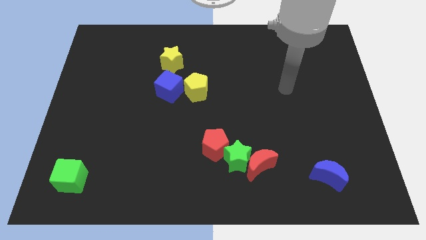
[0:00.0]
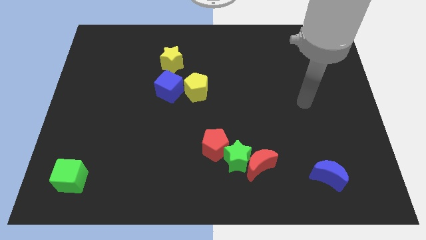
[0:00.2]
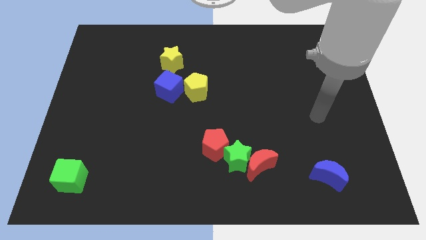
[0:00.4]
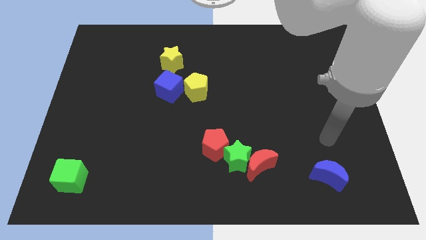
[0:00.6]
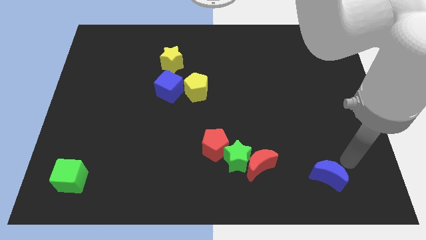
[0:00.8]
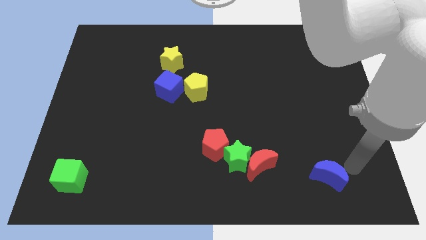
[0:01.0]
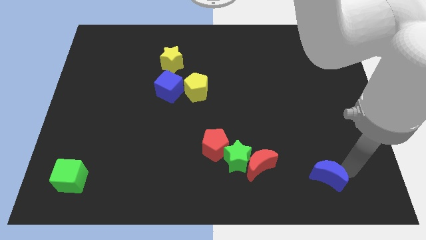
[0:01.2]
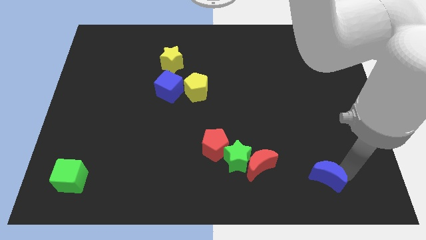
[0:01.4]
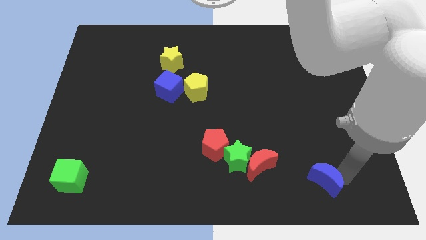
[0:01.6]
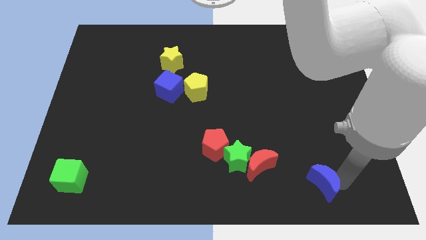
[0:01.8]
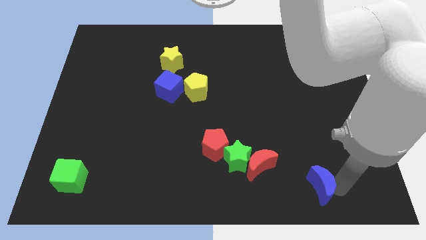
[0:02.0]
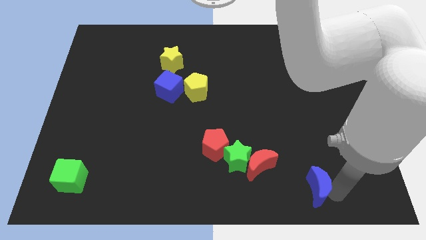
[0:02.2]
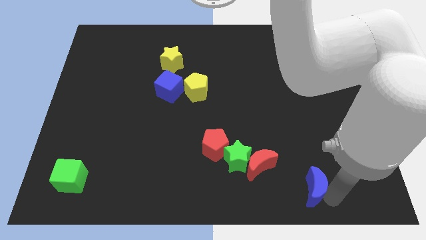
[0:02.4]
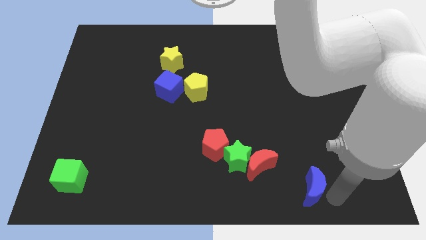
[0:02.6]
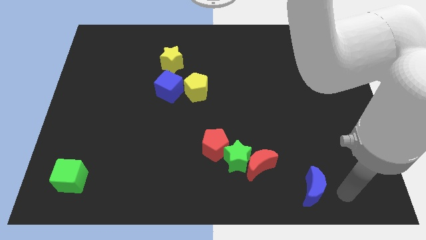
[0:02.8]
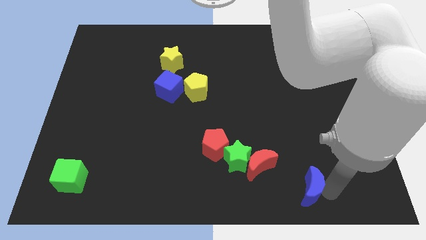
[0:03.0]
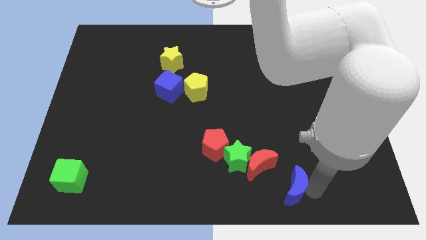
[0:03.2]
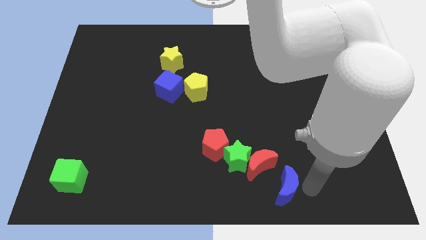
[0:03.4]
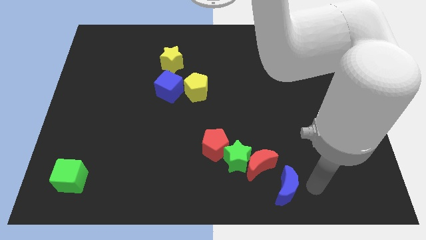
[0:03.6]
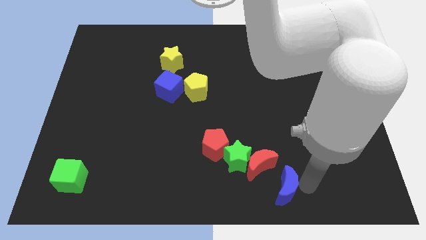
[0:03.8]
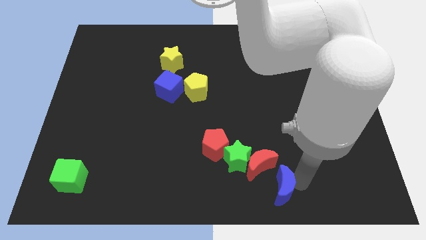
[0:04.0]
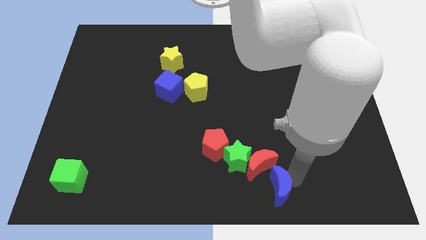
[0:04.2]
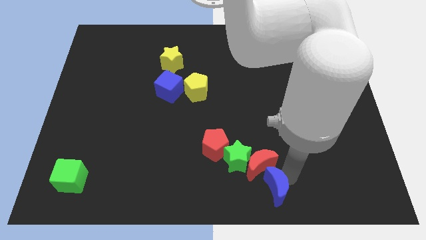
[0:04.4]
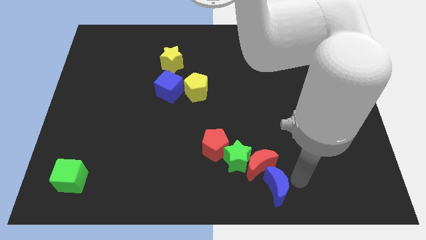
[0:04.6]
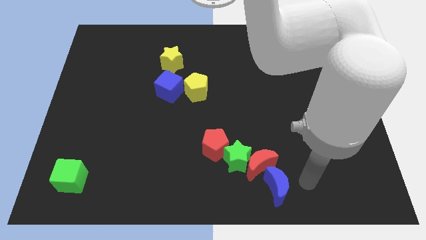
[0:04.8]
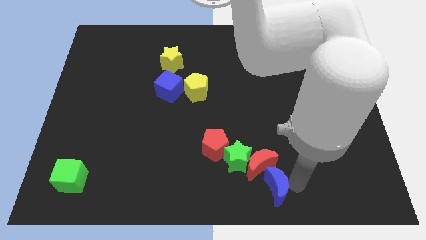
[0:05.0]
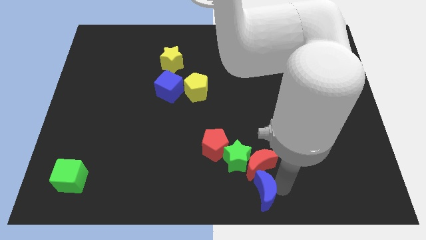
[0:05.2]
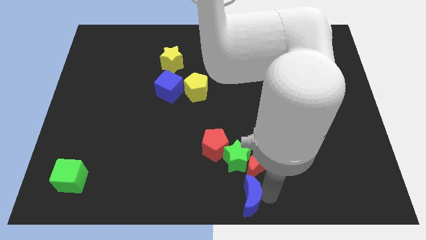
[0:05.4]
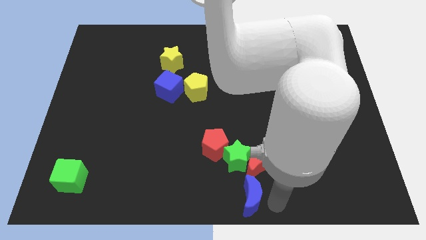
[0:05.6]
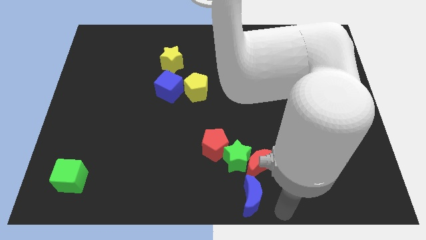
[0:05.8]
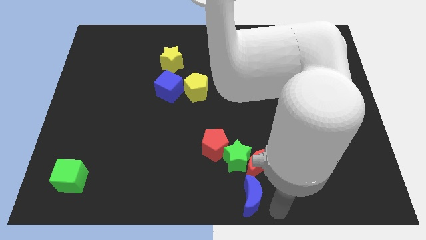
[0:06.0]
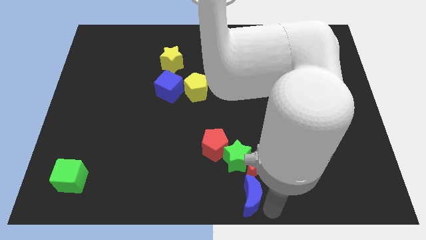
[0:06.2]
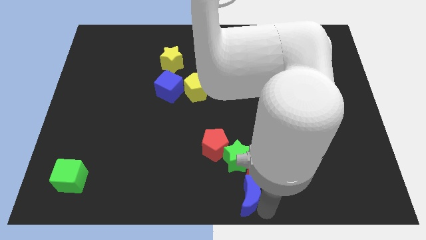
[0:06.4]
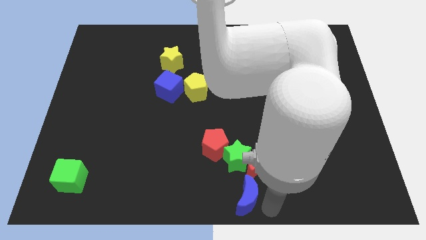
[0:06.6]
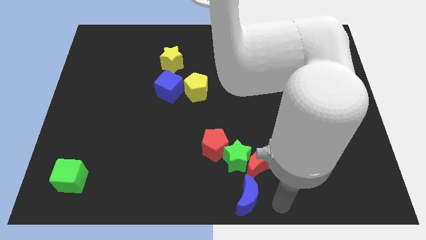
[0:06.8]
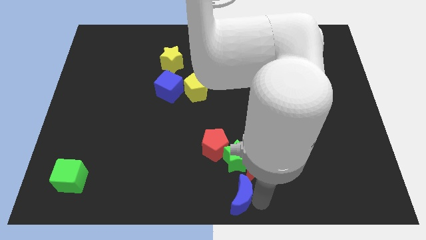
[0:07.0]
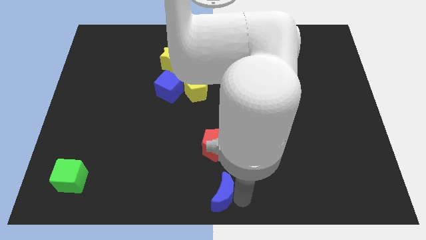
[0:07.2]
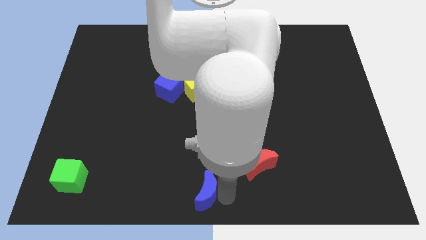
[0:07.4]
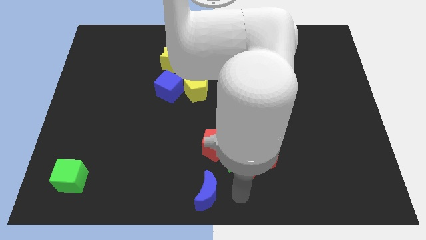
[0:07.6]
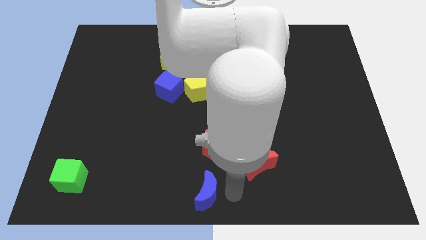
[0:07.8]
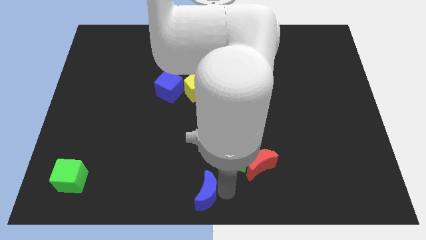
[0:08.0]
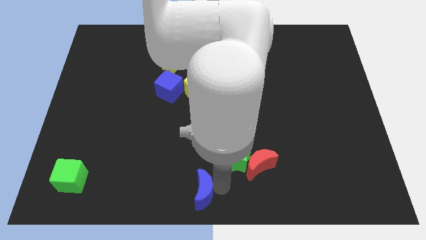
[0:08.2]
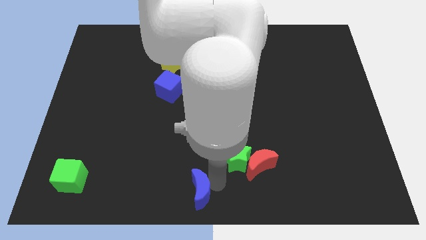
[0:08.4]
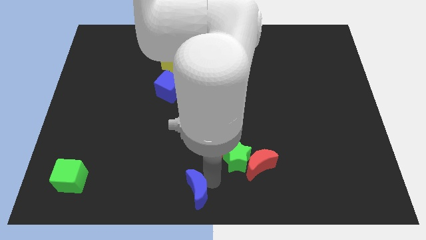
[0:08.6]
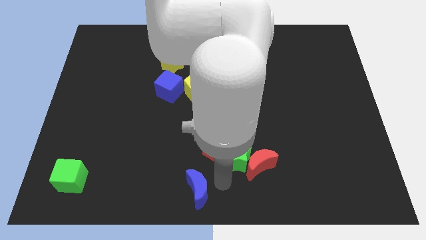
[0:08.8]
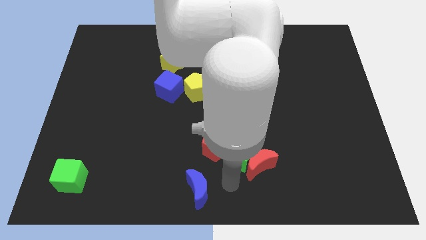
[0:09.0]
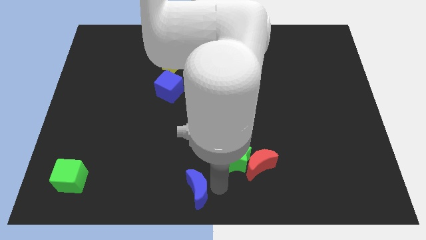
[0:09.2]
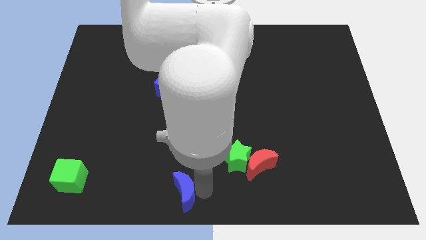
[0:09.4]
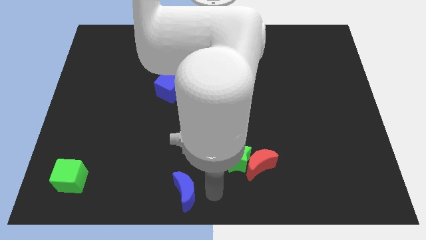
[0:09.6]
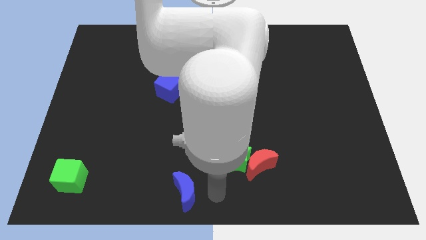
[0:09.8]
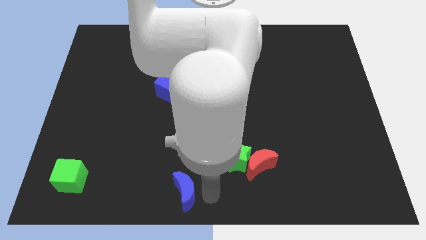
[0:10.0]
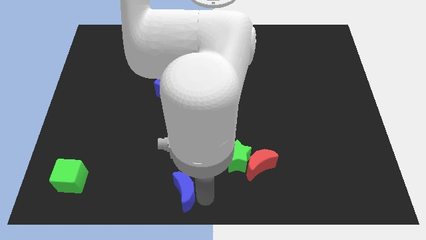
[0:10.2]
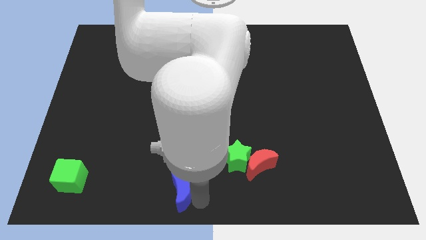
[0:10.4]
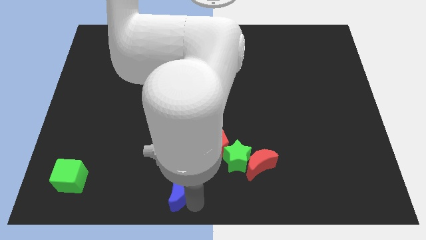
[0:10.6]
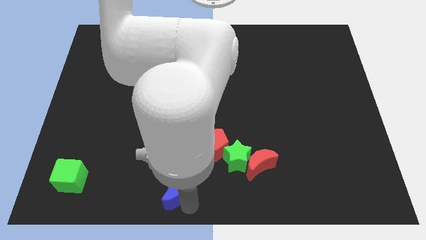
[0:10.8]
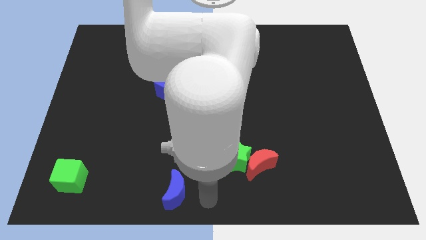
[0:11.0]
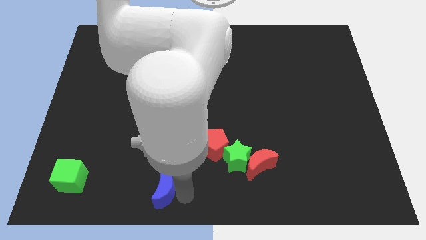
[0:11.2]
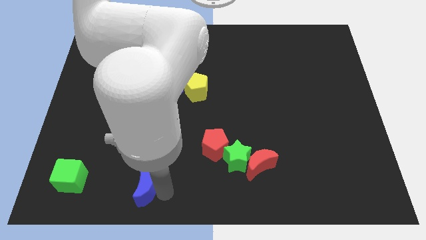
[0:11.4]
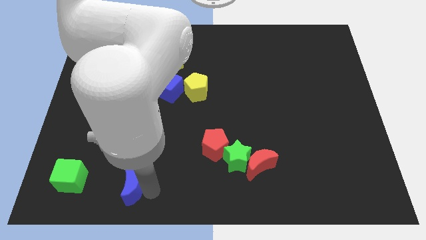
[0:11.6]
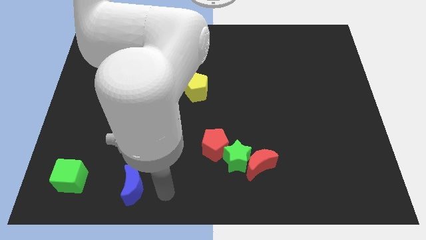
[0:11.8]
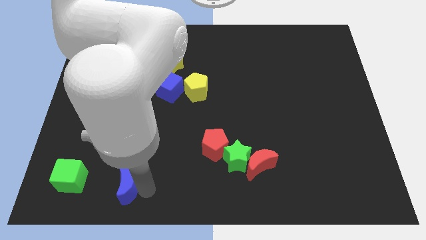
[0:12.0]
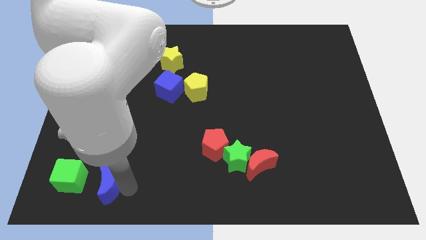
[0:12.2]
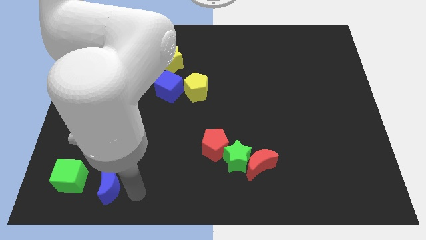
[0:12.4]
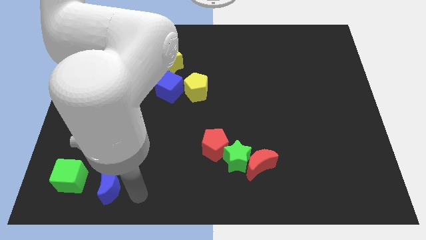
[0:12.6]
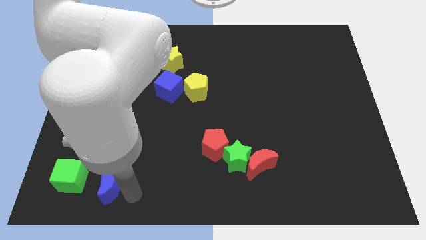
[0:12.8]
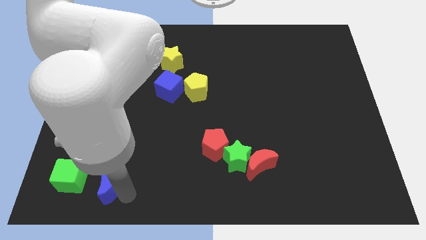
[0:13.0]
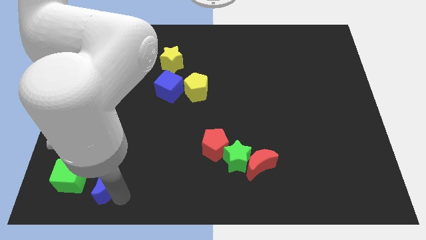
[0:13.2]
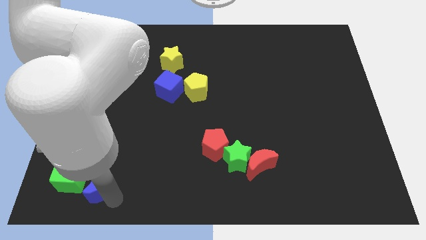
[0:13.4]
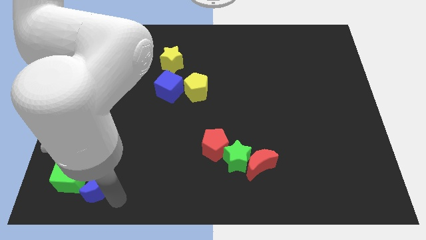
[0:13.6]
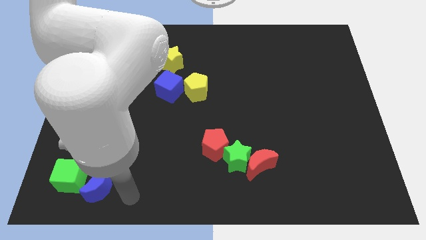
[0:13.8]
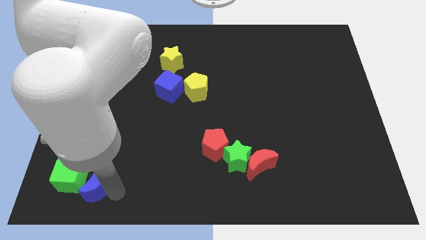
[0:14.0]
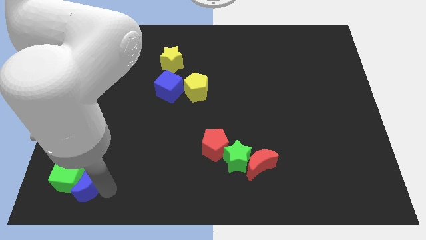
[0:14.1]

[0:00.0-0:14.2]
push the blue moon close to the green cube
